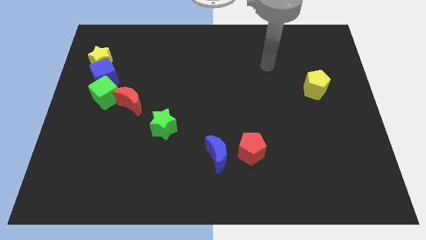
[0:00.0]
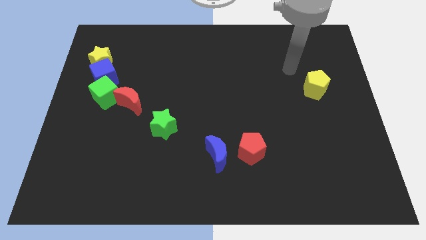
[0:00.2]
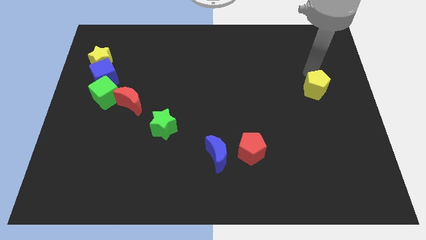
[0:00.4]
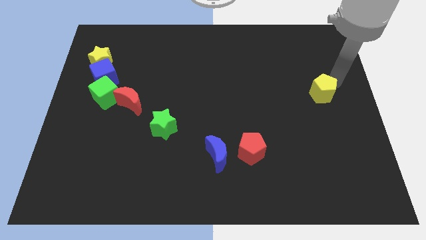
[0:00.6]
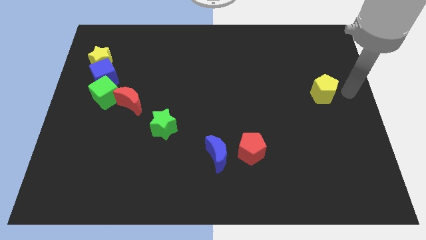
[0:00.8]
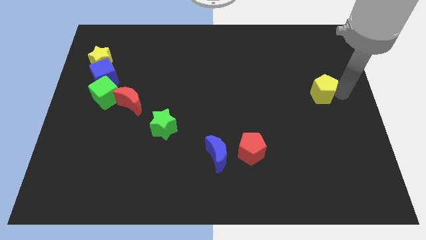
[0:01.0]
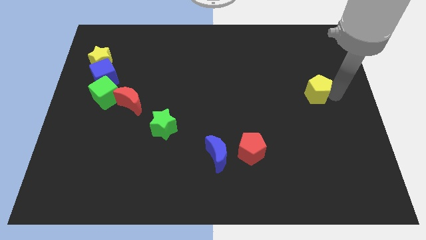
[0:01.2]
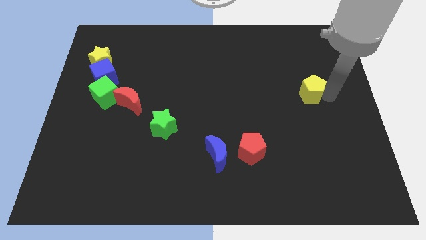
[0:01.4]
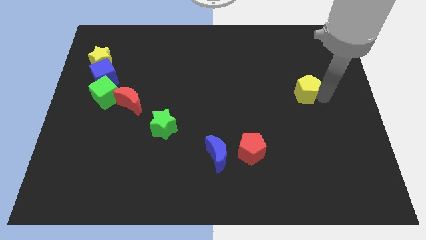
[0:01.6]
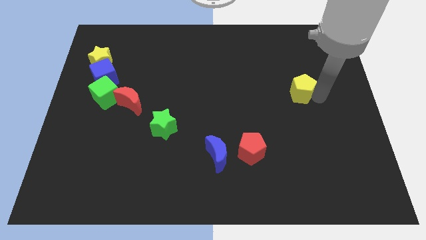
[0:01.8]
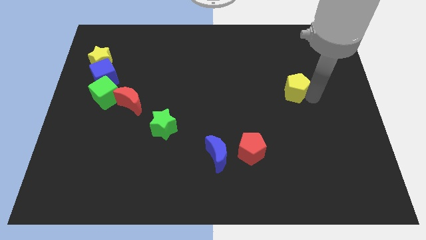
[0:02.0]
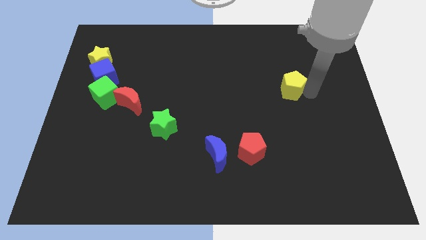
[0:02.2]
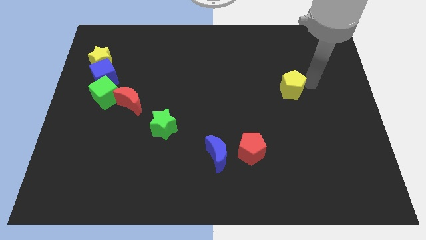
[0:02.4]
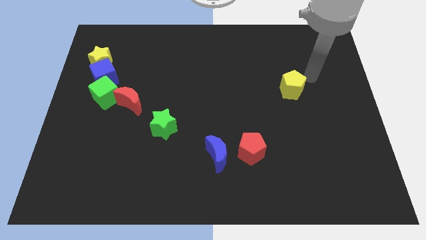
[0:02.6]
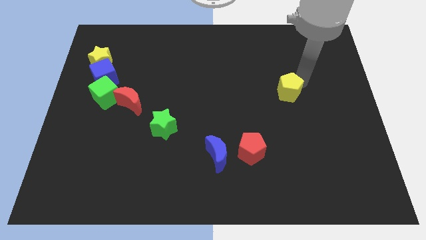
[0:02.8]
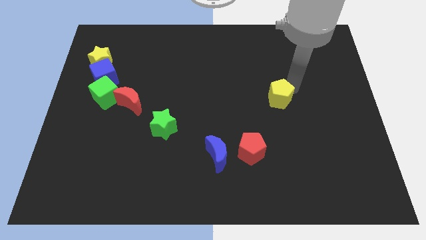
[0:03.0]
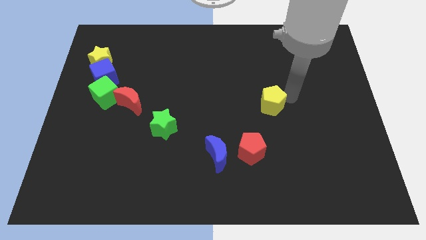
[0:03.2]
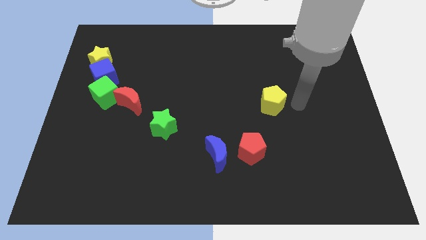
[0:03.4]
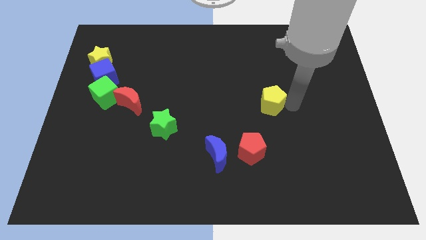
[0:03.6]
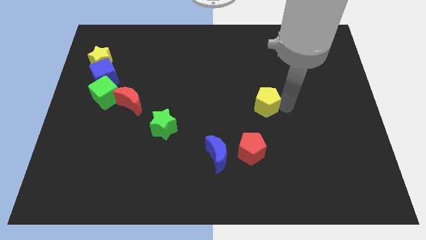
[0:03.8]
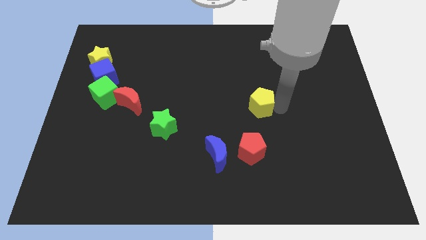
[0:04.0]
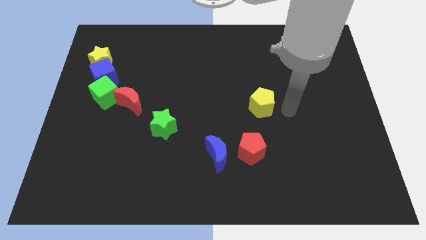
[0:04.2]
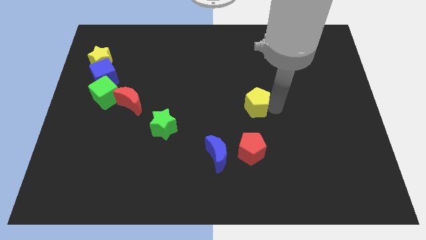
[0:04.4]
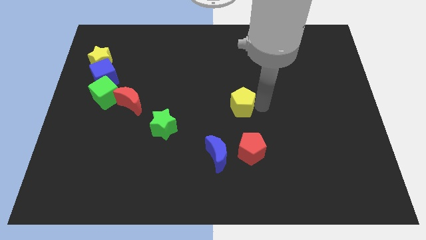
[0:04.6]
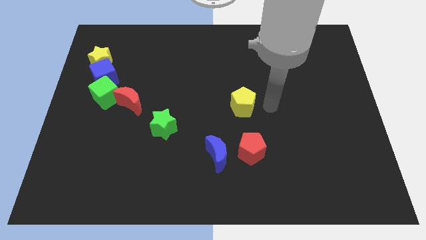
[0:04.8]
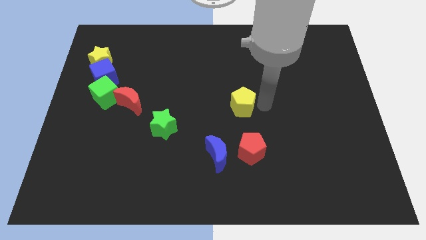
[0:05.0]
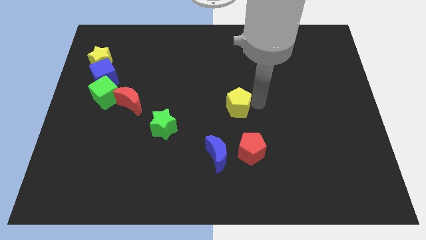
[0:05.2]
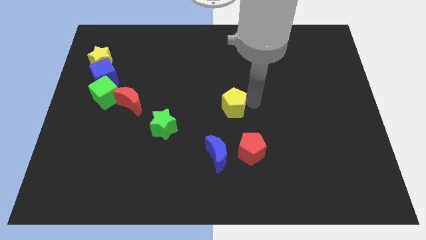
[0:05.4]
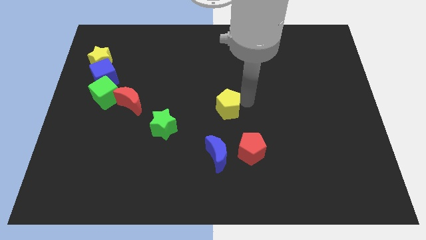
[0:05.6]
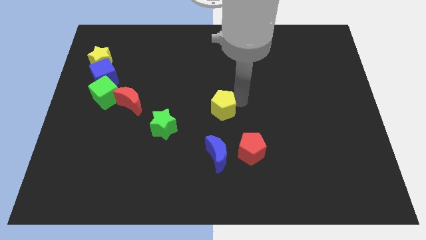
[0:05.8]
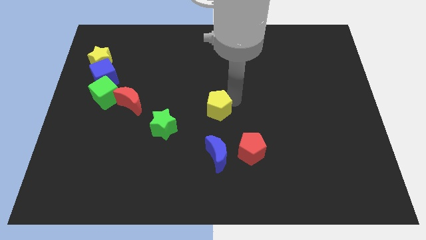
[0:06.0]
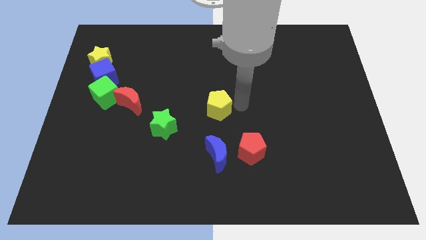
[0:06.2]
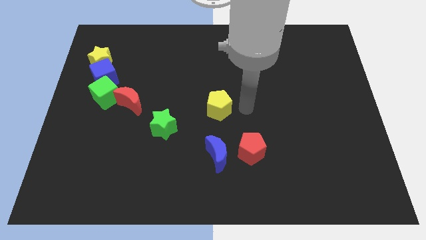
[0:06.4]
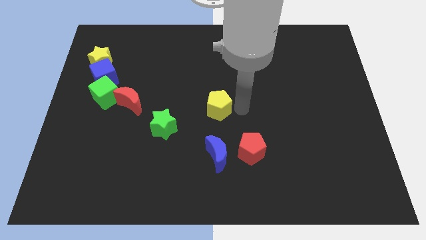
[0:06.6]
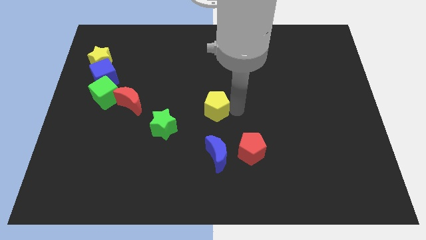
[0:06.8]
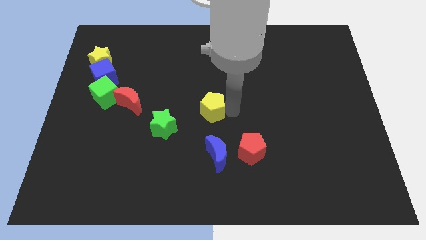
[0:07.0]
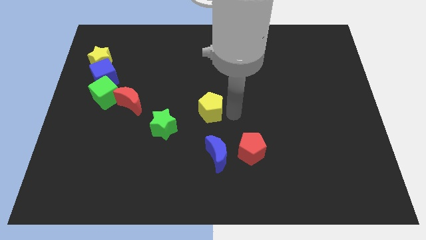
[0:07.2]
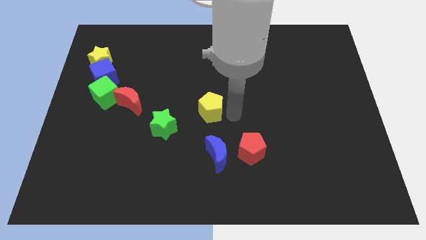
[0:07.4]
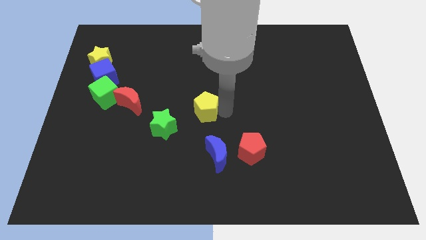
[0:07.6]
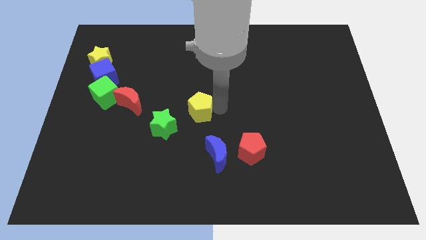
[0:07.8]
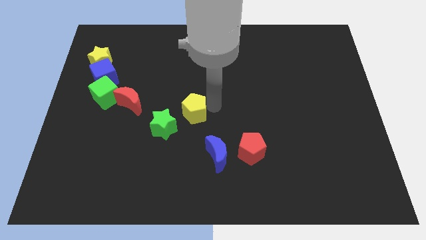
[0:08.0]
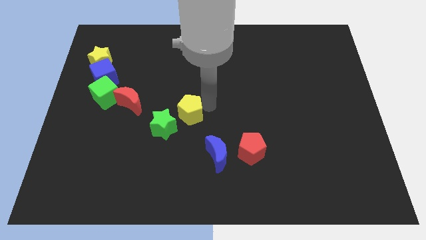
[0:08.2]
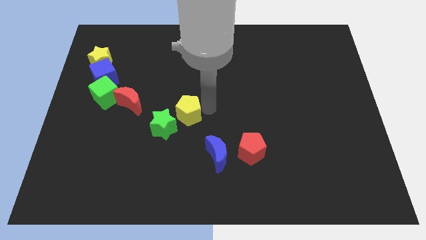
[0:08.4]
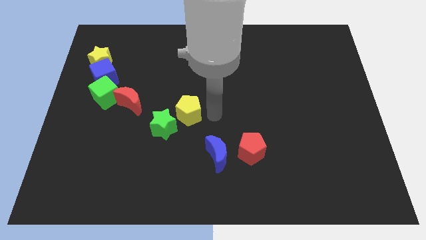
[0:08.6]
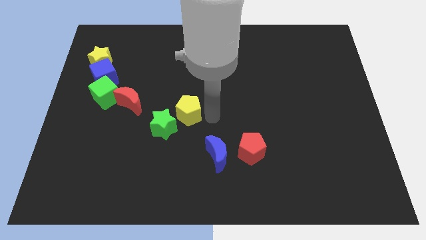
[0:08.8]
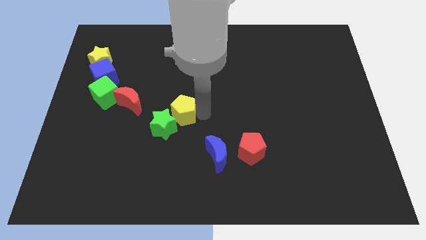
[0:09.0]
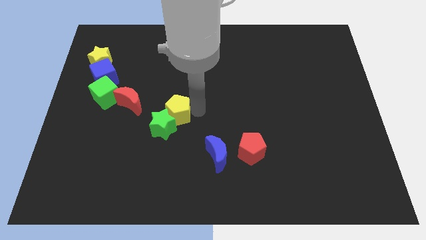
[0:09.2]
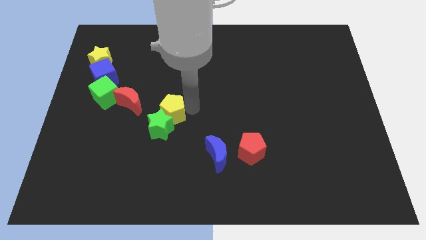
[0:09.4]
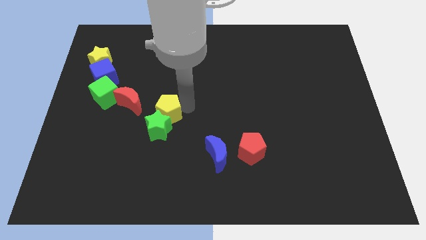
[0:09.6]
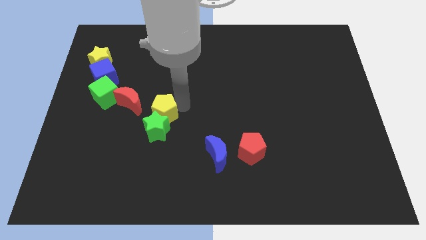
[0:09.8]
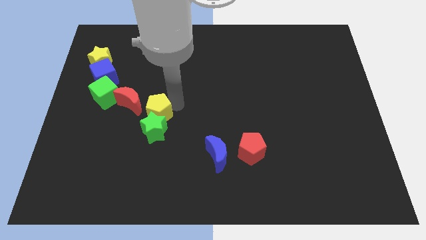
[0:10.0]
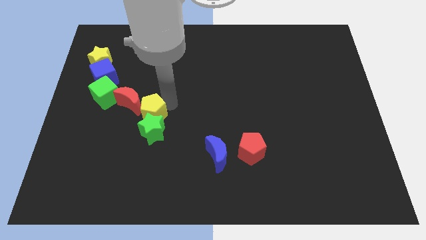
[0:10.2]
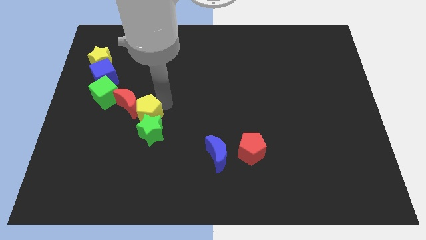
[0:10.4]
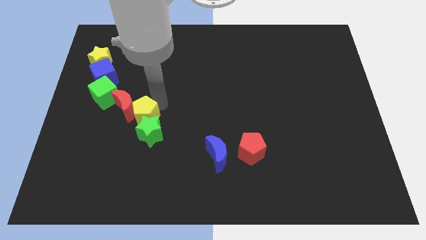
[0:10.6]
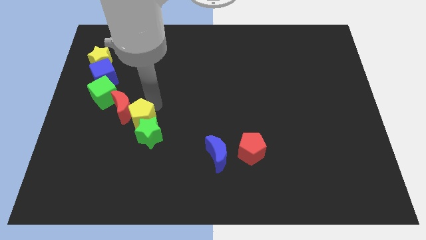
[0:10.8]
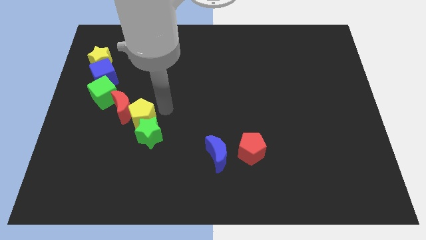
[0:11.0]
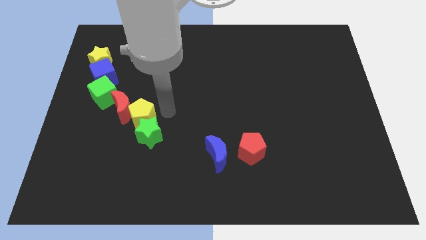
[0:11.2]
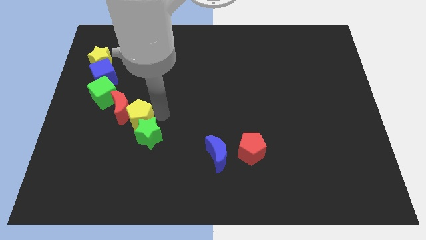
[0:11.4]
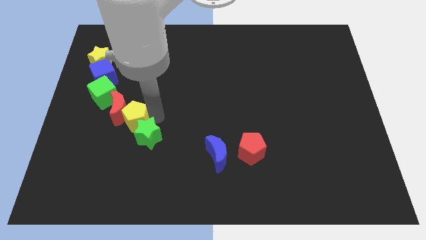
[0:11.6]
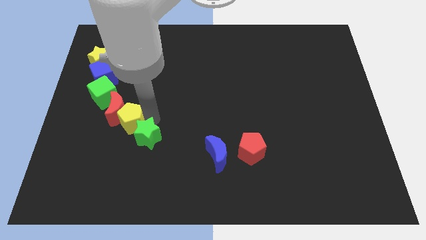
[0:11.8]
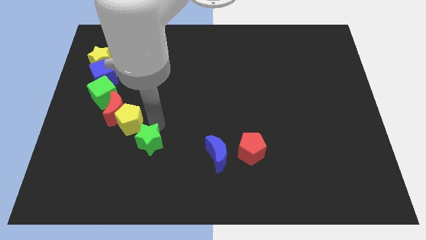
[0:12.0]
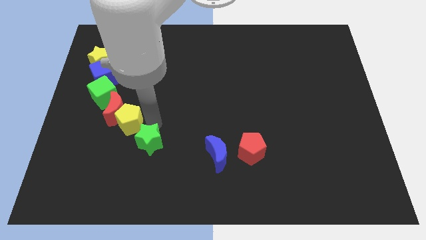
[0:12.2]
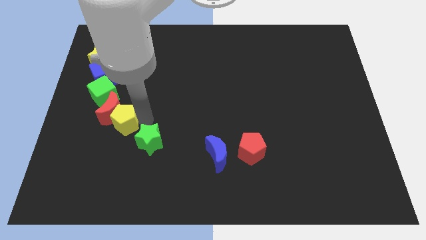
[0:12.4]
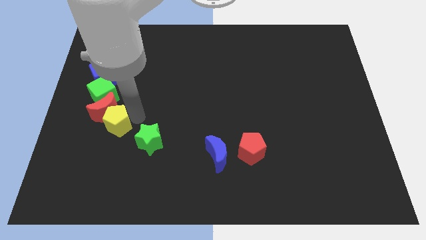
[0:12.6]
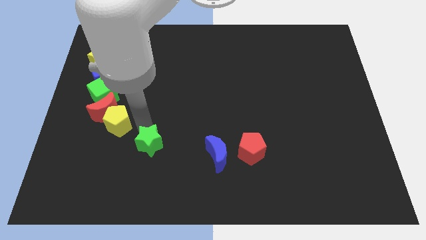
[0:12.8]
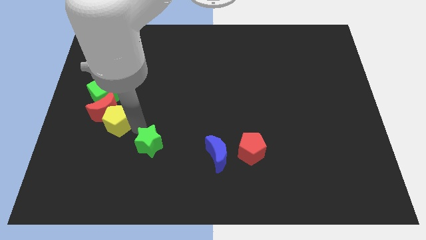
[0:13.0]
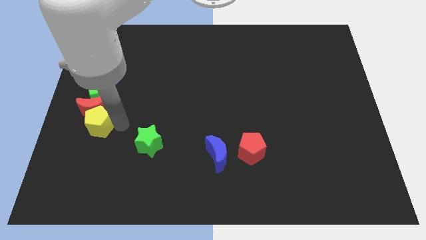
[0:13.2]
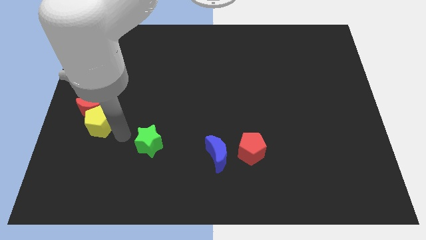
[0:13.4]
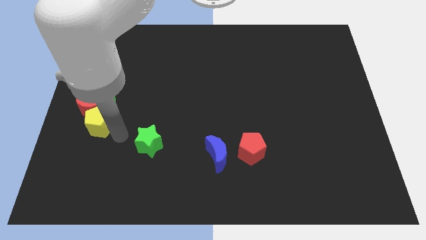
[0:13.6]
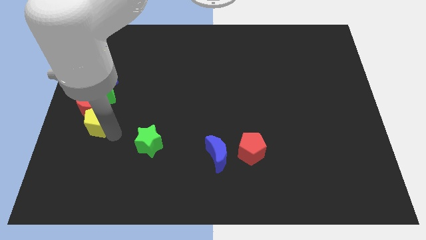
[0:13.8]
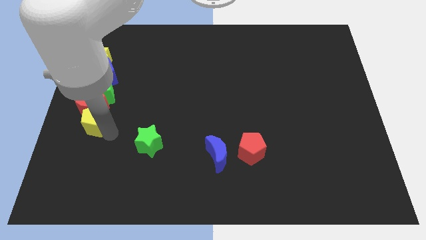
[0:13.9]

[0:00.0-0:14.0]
push the yellow pentagon to the left side of the board
